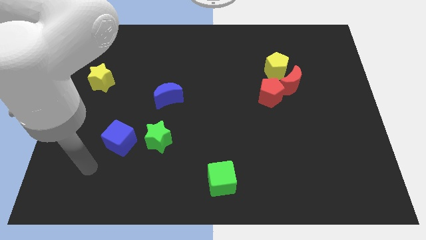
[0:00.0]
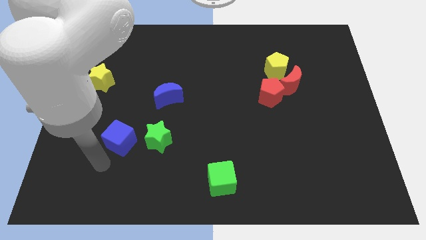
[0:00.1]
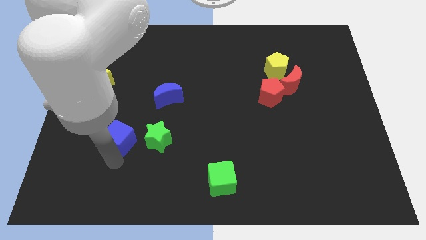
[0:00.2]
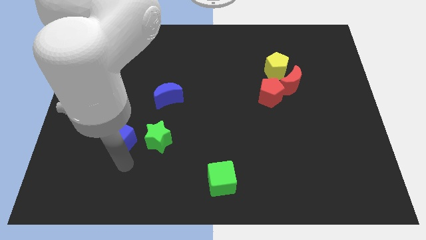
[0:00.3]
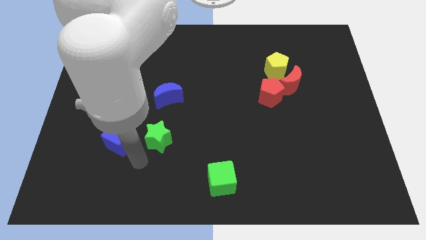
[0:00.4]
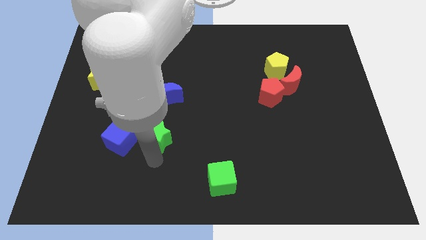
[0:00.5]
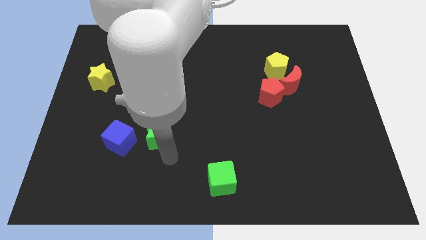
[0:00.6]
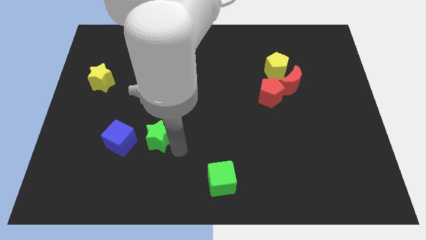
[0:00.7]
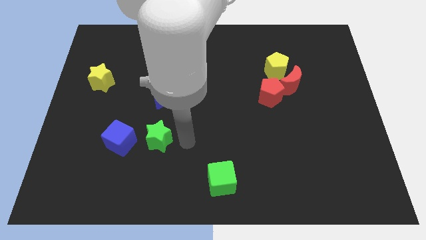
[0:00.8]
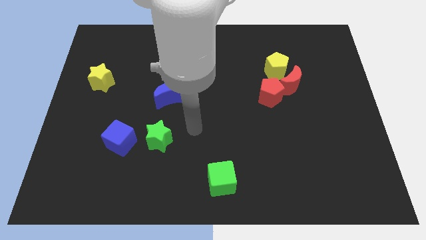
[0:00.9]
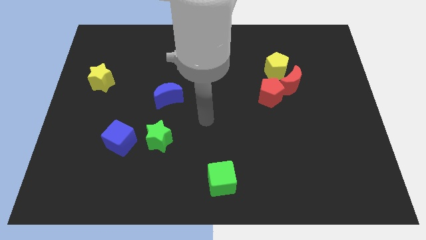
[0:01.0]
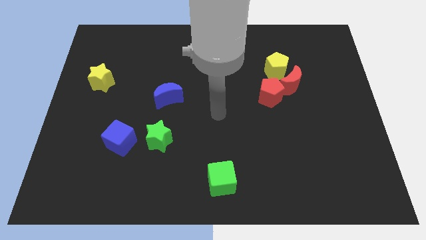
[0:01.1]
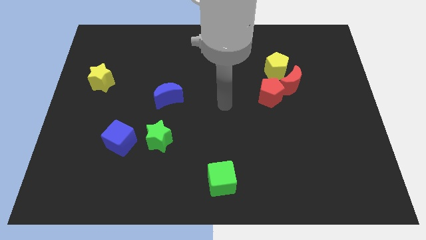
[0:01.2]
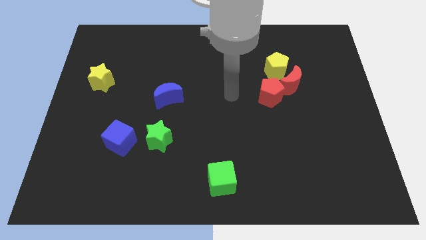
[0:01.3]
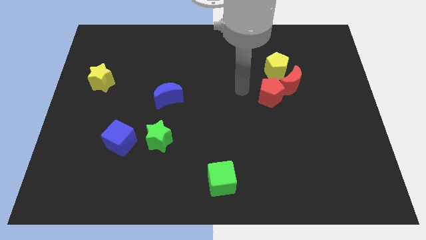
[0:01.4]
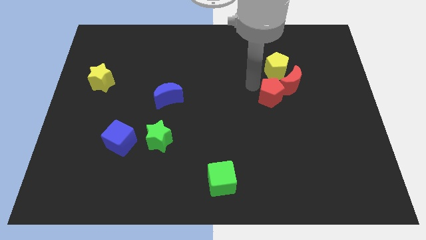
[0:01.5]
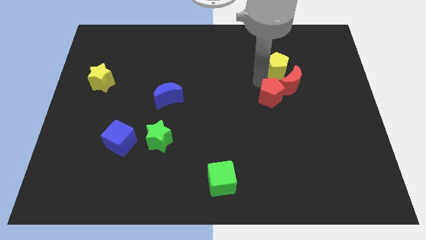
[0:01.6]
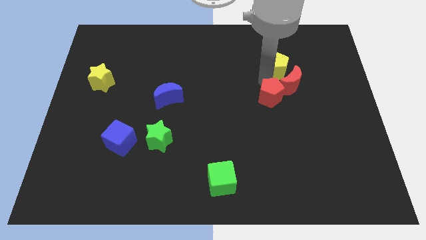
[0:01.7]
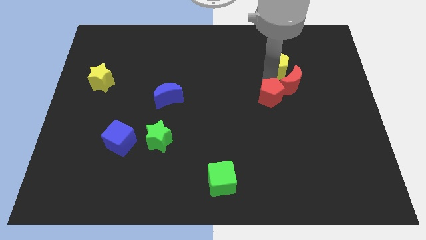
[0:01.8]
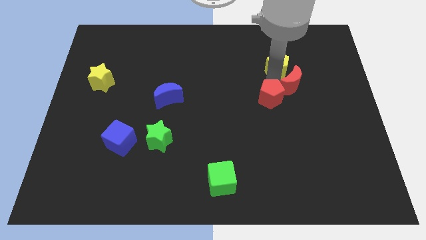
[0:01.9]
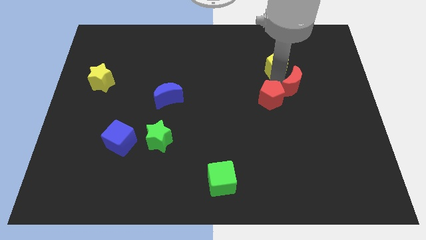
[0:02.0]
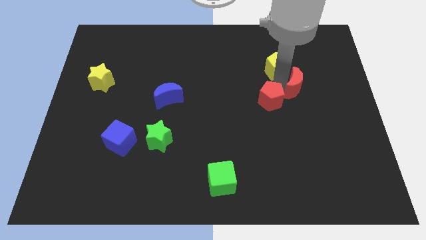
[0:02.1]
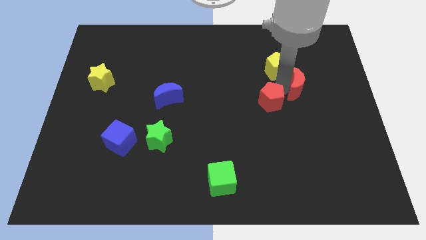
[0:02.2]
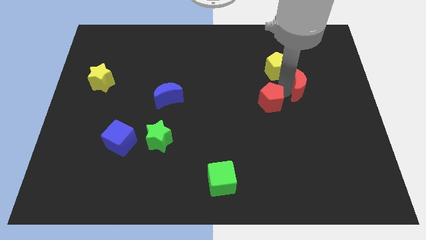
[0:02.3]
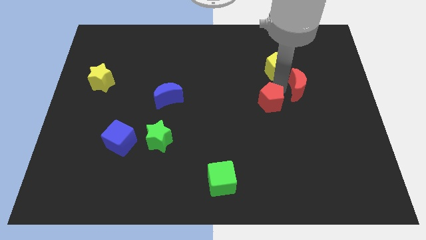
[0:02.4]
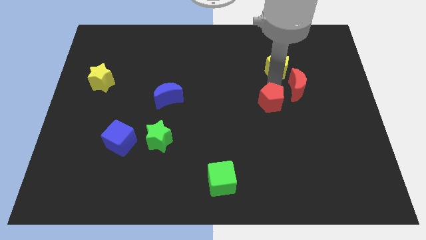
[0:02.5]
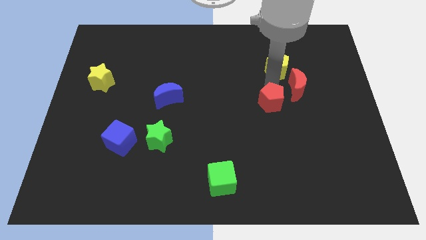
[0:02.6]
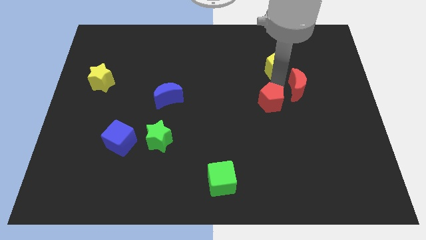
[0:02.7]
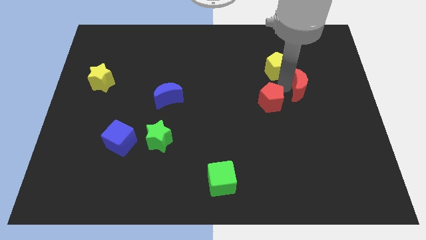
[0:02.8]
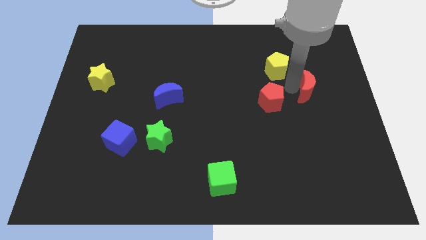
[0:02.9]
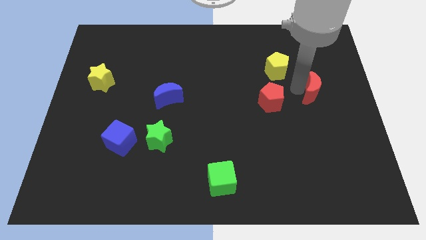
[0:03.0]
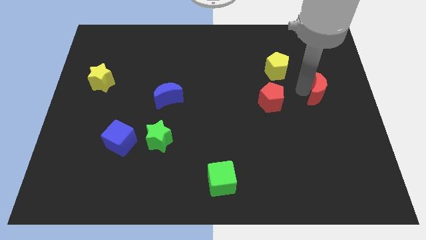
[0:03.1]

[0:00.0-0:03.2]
separate the red moon from the yellow pentagon and red pentagon

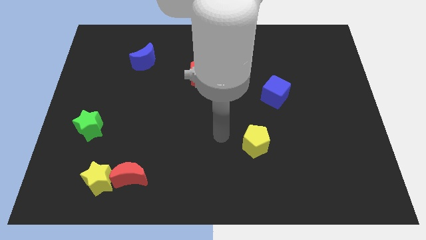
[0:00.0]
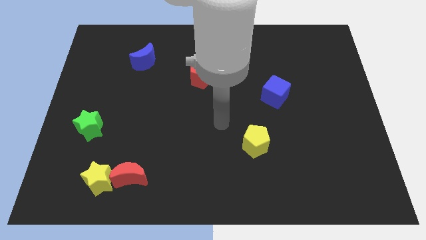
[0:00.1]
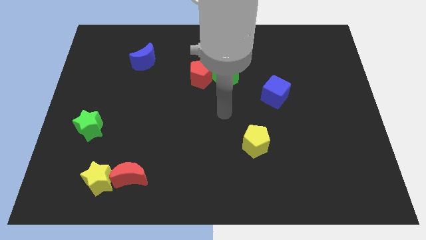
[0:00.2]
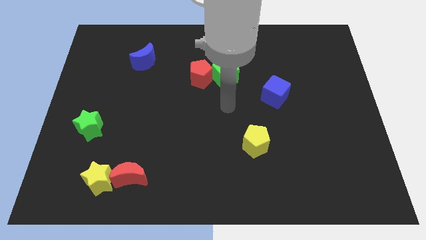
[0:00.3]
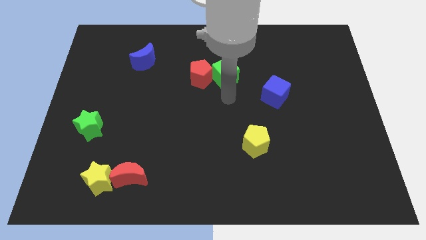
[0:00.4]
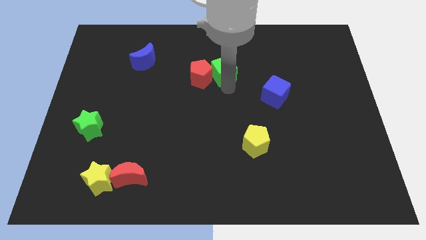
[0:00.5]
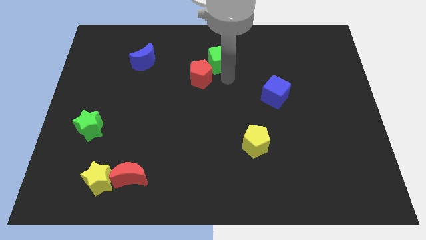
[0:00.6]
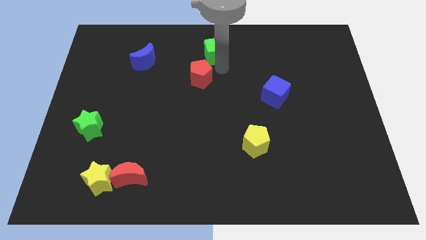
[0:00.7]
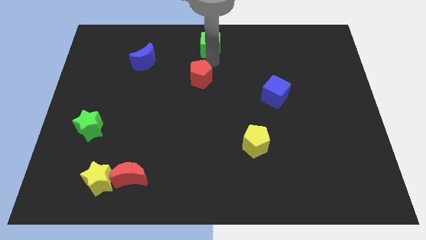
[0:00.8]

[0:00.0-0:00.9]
move the red pentagon away from the green cube

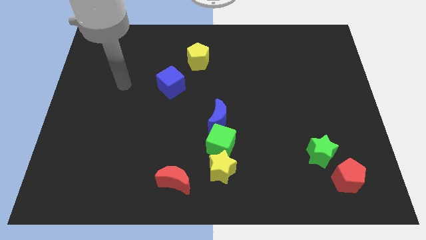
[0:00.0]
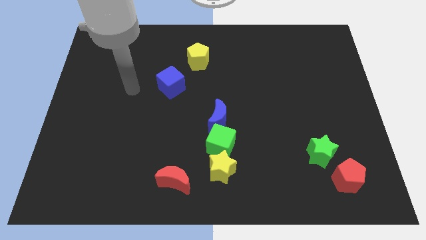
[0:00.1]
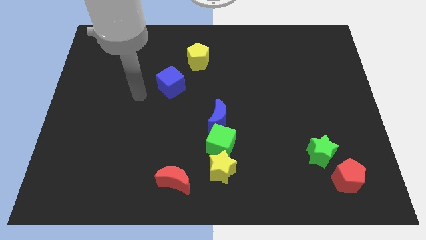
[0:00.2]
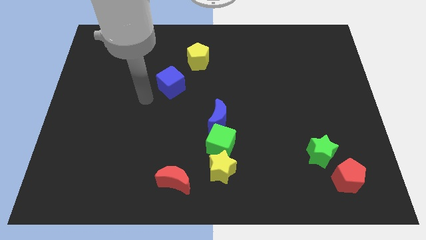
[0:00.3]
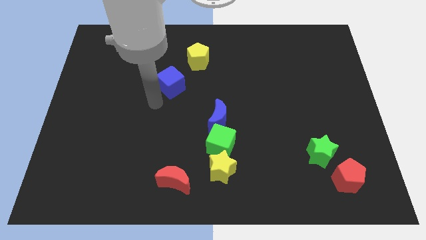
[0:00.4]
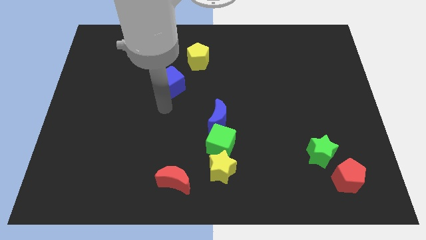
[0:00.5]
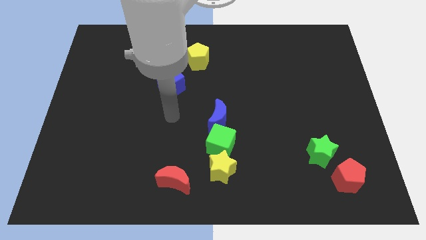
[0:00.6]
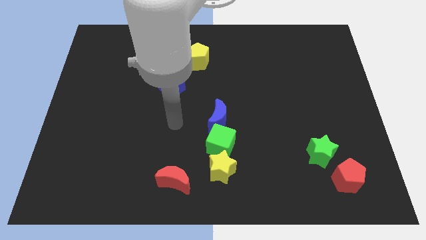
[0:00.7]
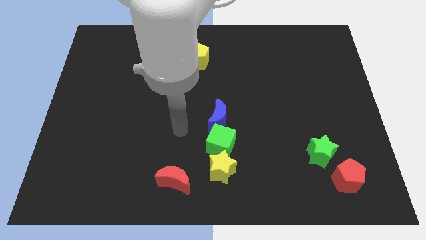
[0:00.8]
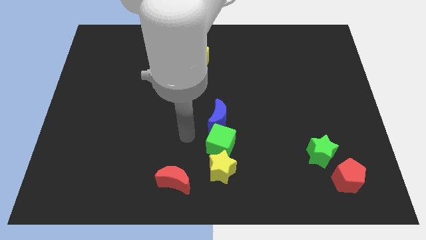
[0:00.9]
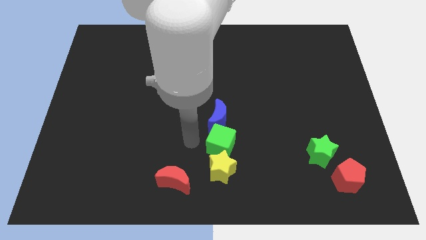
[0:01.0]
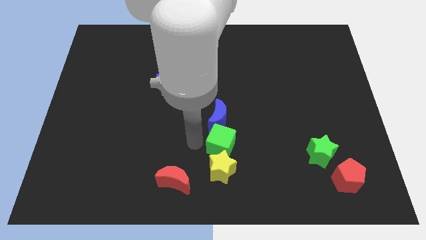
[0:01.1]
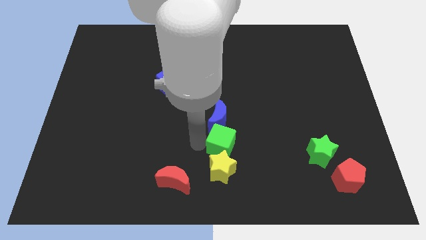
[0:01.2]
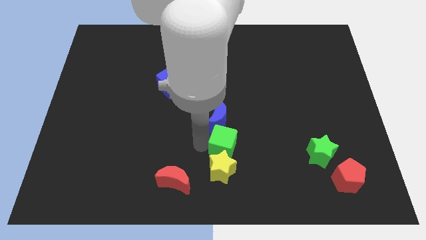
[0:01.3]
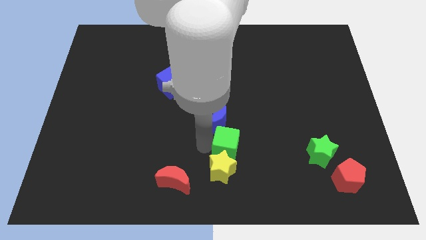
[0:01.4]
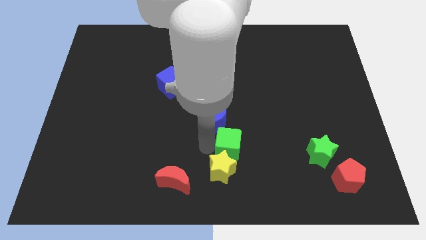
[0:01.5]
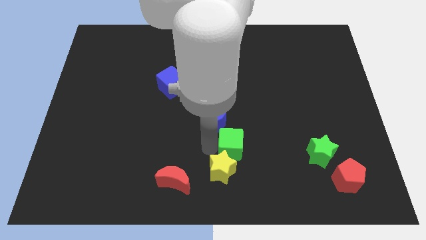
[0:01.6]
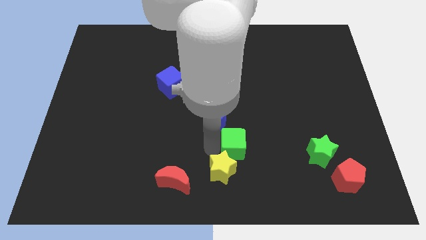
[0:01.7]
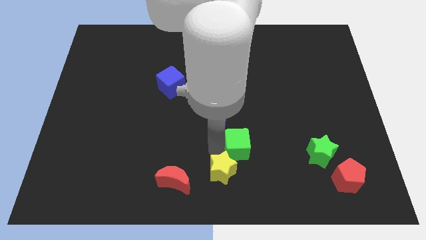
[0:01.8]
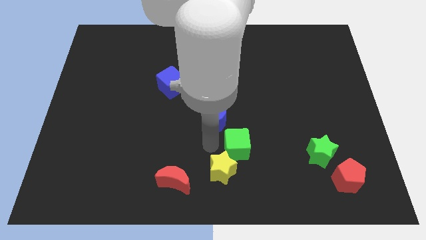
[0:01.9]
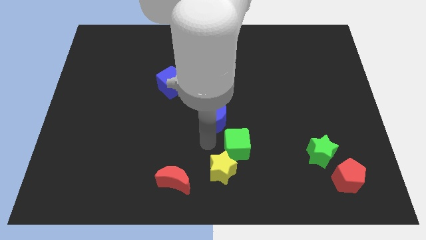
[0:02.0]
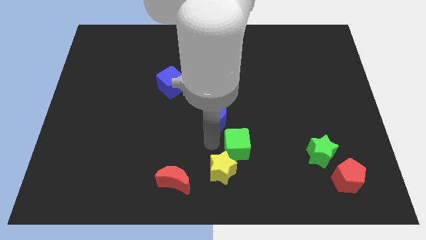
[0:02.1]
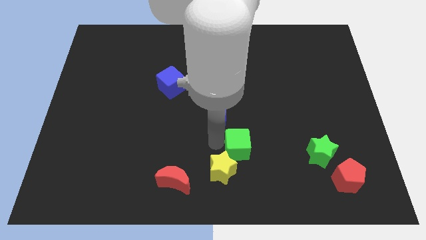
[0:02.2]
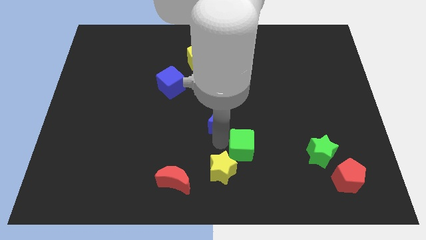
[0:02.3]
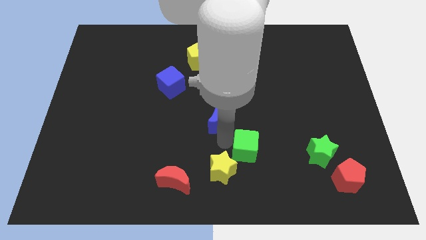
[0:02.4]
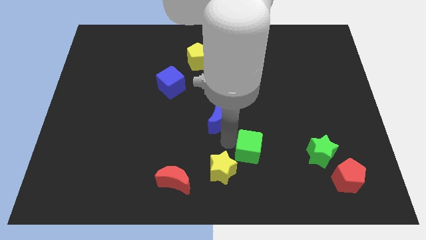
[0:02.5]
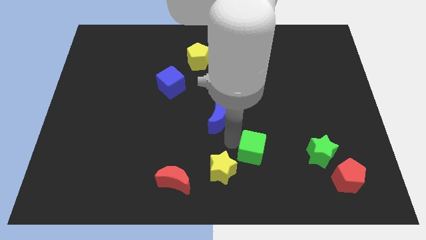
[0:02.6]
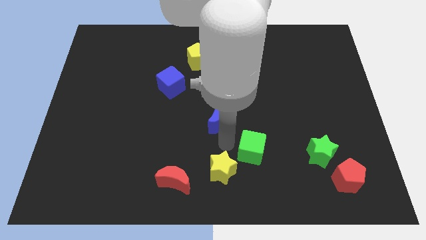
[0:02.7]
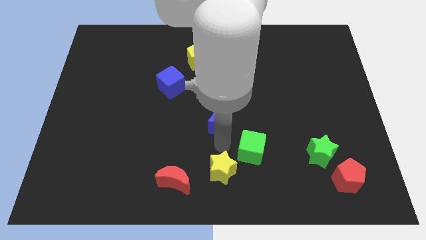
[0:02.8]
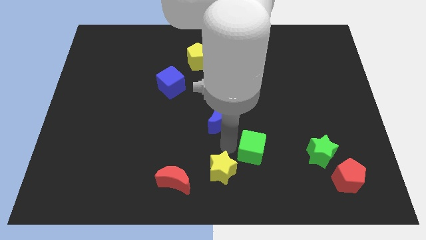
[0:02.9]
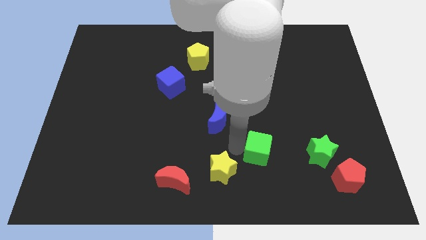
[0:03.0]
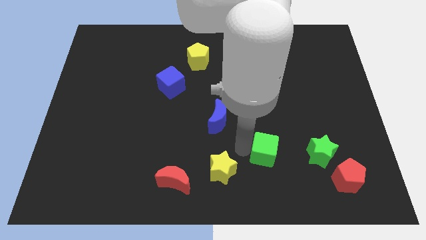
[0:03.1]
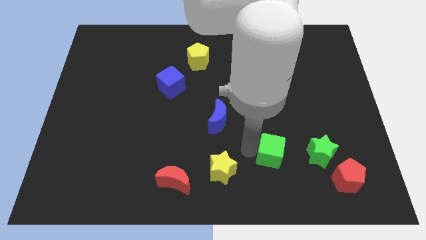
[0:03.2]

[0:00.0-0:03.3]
separate the green cube from the yellow star and blue moon

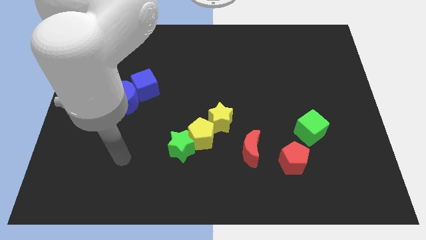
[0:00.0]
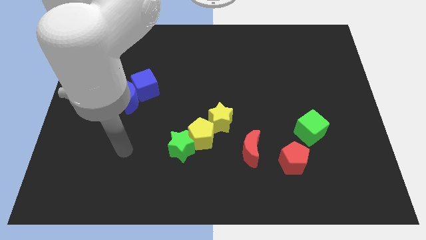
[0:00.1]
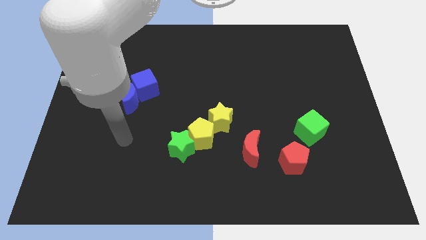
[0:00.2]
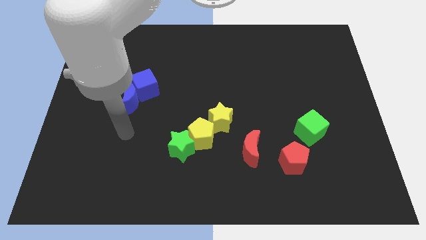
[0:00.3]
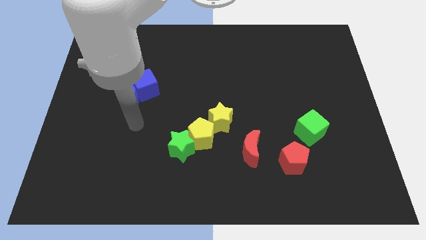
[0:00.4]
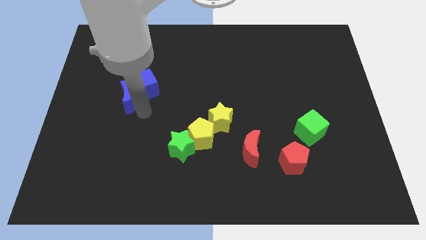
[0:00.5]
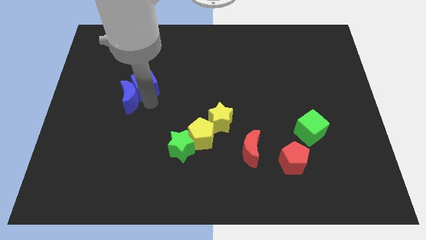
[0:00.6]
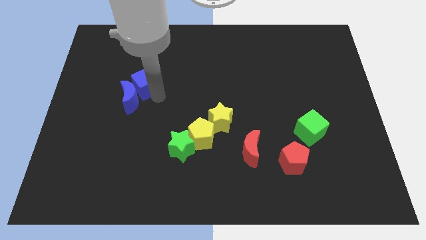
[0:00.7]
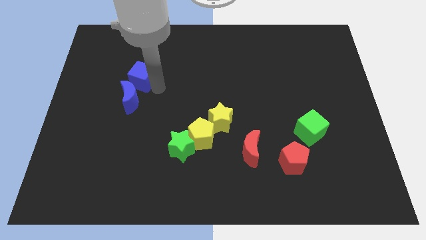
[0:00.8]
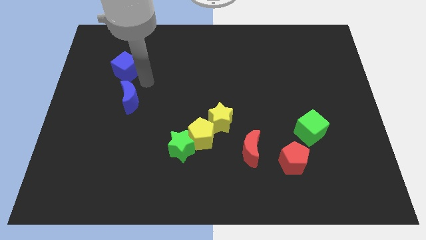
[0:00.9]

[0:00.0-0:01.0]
separate the blue moon from the blue cube

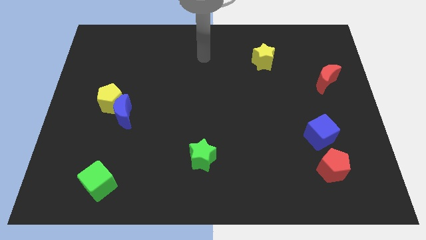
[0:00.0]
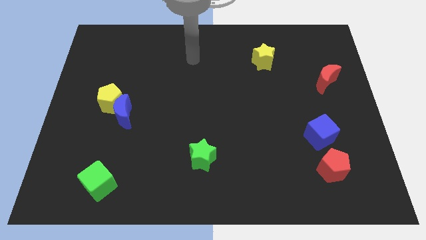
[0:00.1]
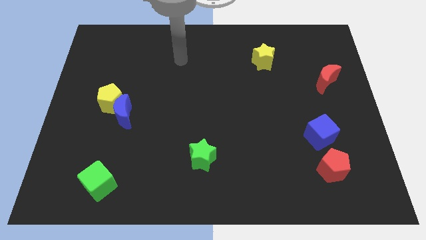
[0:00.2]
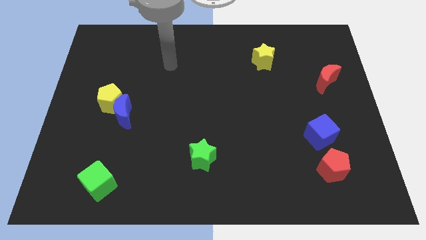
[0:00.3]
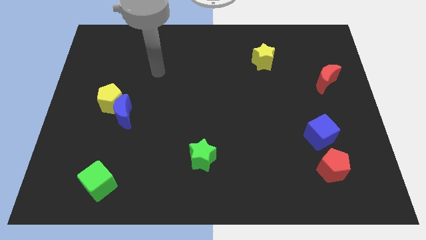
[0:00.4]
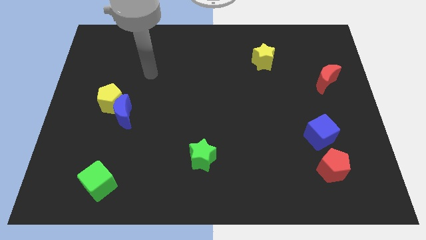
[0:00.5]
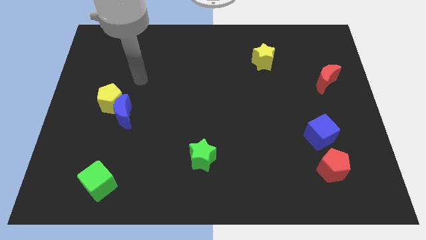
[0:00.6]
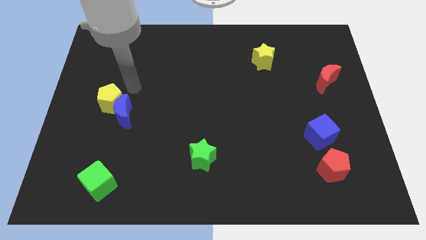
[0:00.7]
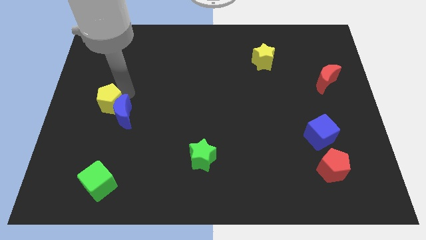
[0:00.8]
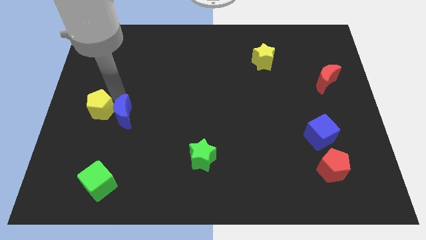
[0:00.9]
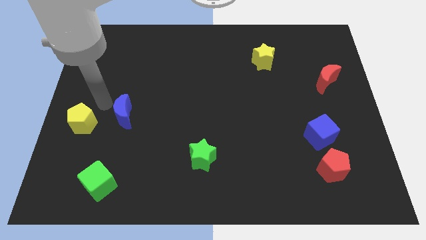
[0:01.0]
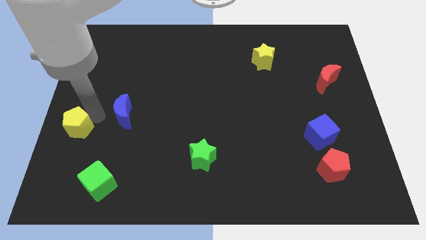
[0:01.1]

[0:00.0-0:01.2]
pull the blue moon apart from the yellow pentagon
